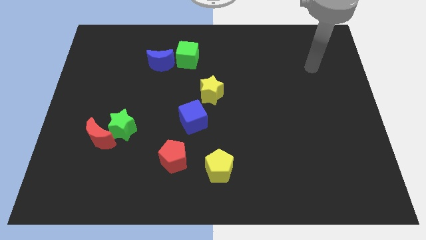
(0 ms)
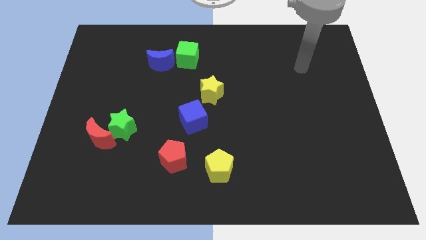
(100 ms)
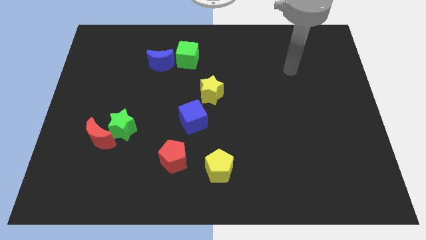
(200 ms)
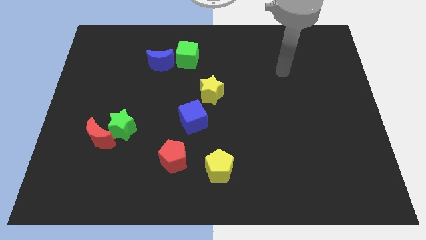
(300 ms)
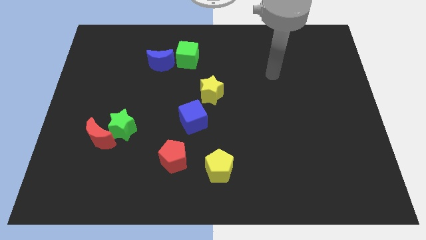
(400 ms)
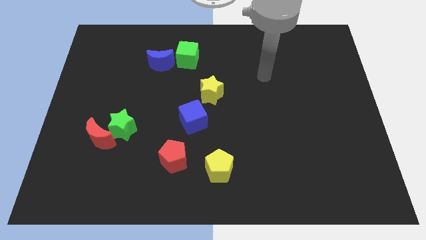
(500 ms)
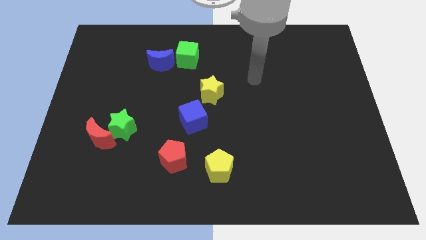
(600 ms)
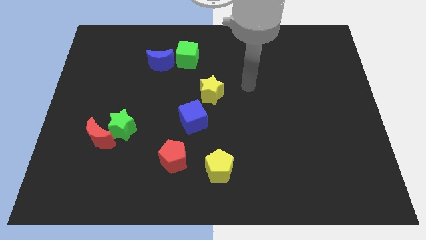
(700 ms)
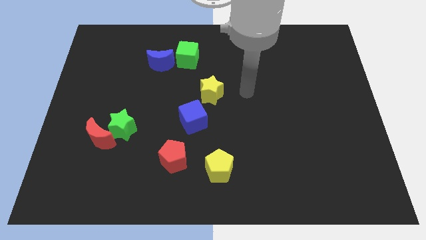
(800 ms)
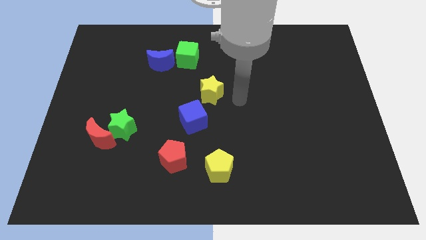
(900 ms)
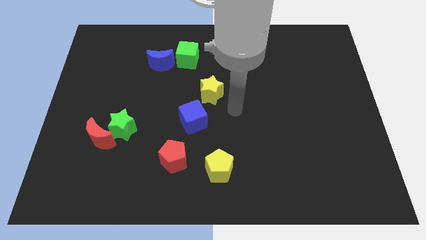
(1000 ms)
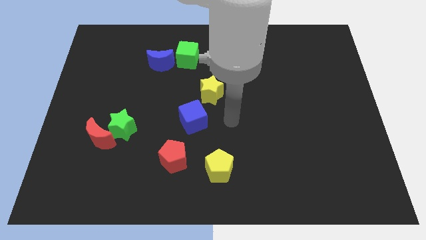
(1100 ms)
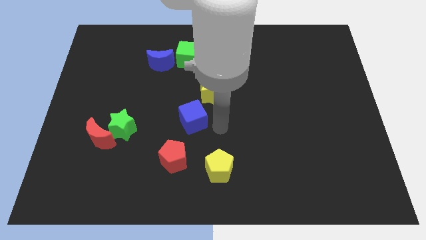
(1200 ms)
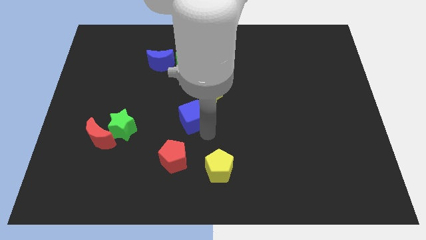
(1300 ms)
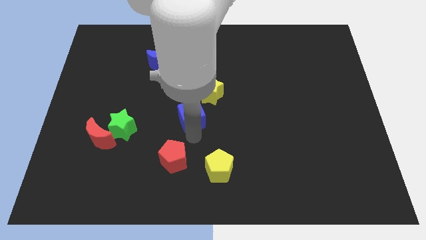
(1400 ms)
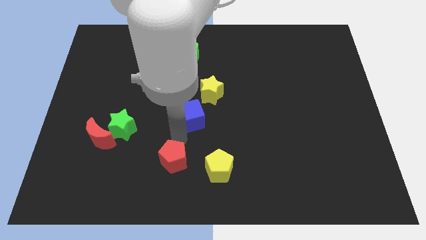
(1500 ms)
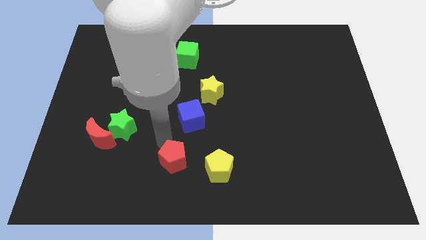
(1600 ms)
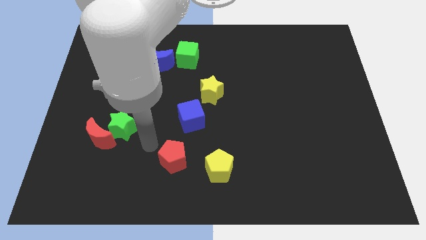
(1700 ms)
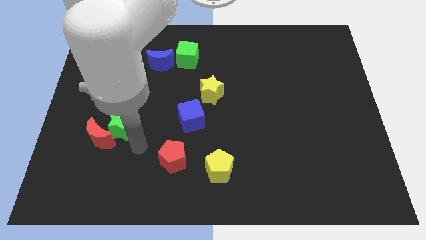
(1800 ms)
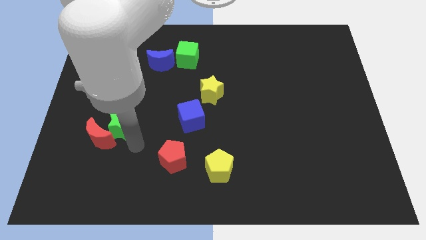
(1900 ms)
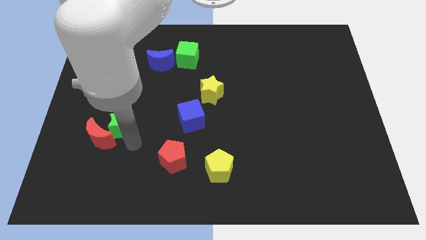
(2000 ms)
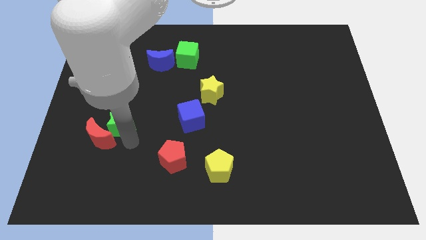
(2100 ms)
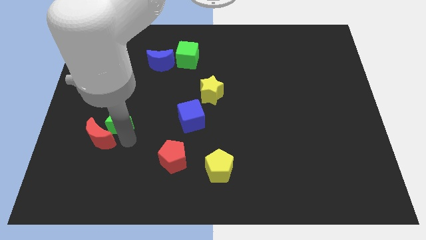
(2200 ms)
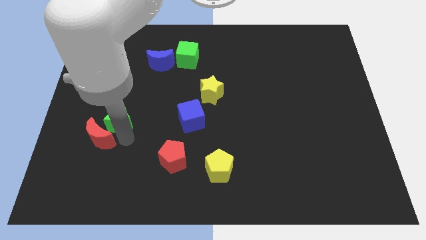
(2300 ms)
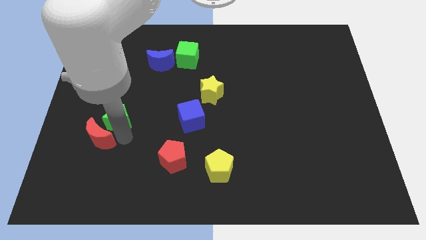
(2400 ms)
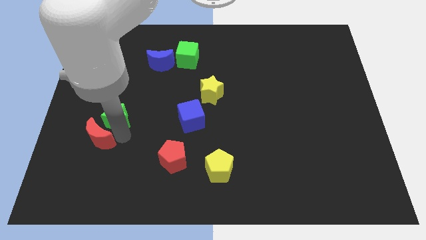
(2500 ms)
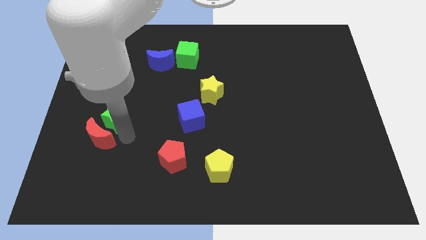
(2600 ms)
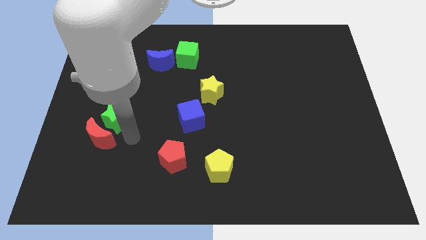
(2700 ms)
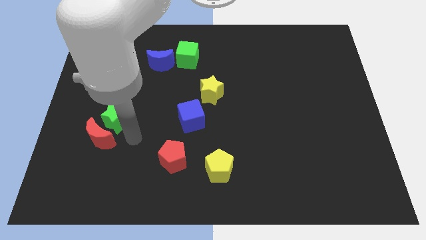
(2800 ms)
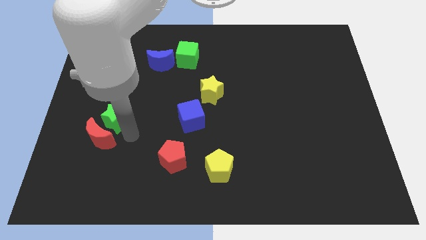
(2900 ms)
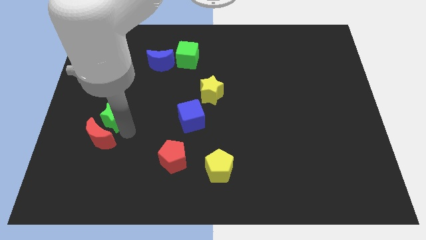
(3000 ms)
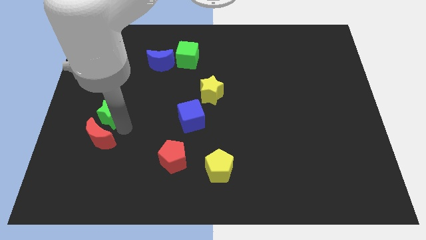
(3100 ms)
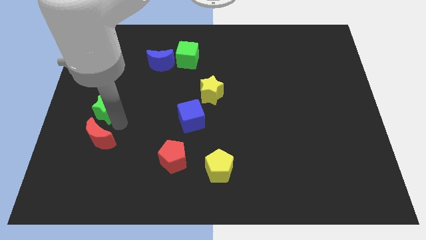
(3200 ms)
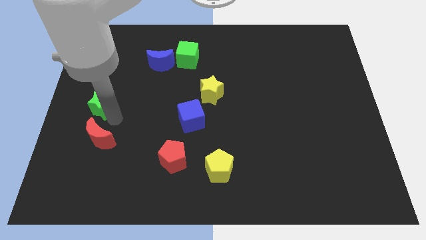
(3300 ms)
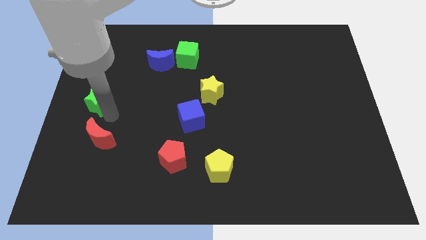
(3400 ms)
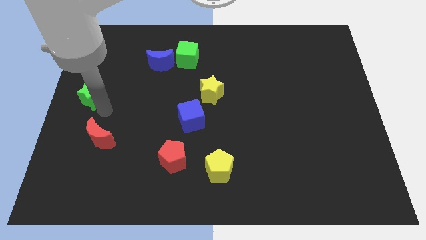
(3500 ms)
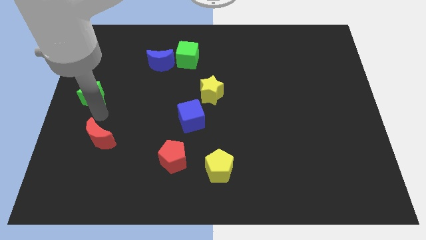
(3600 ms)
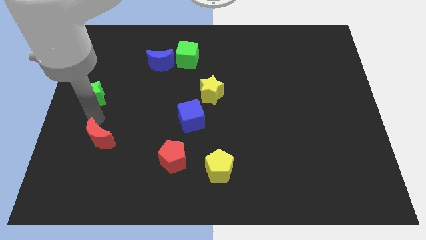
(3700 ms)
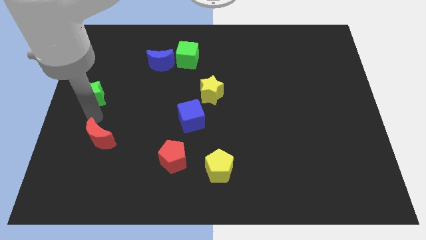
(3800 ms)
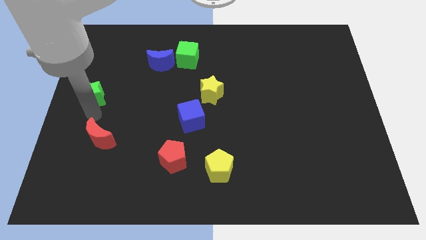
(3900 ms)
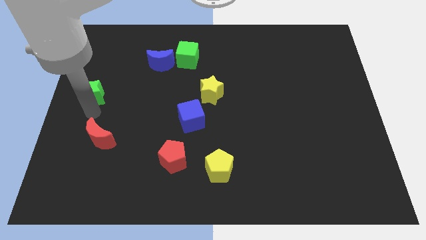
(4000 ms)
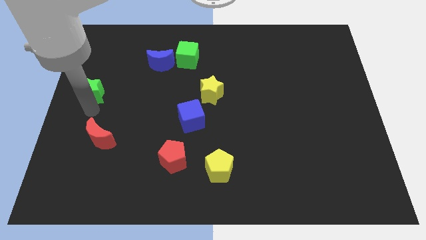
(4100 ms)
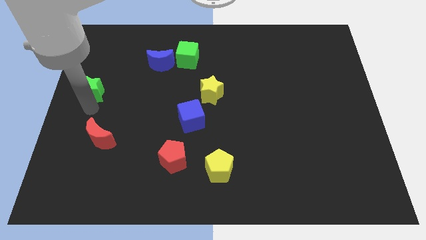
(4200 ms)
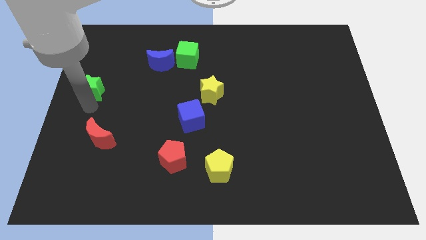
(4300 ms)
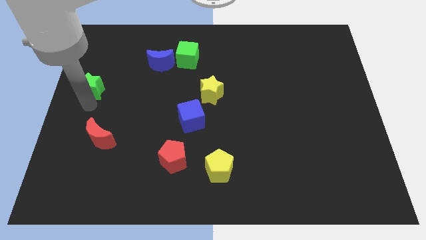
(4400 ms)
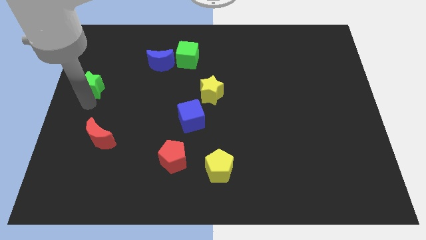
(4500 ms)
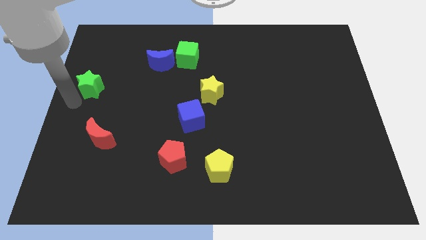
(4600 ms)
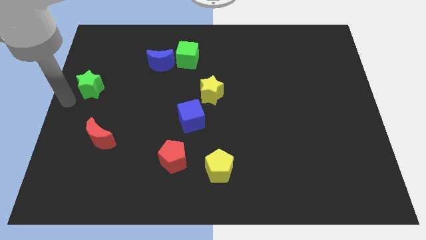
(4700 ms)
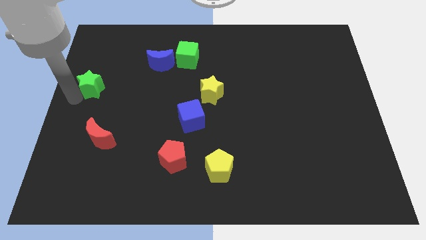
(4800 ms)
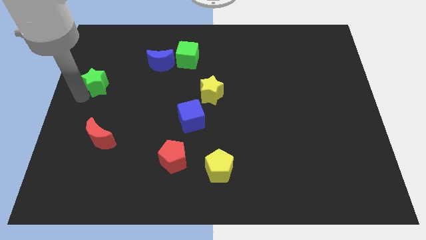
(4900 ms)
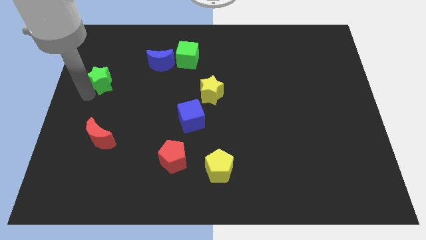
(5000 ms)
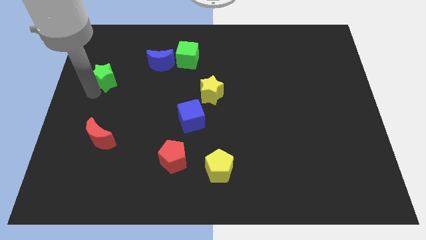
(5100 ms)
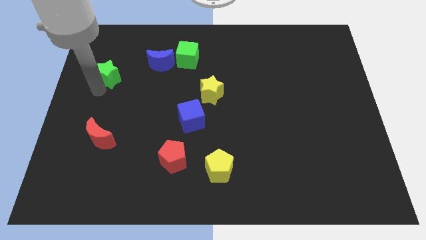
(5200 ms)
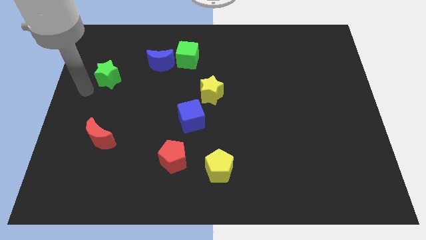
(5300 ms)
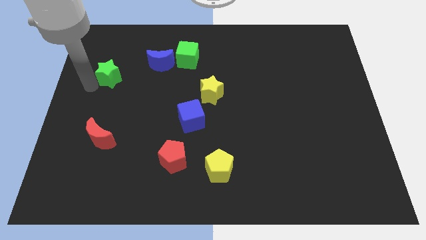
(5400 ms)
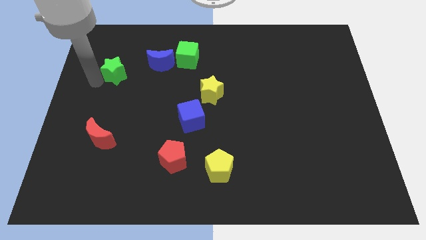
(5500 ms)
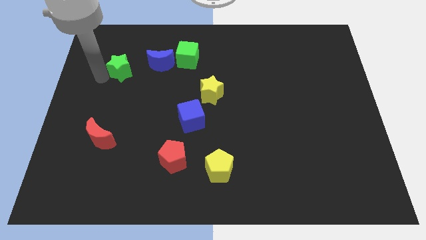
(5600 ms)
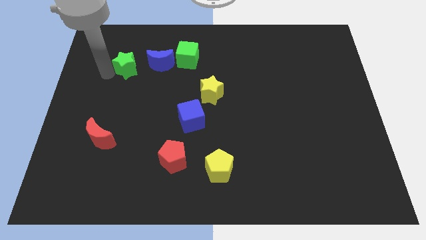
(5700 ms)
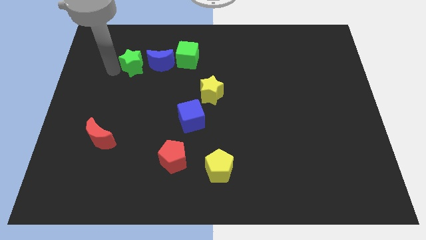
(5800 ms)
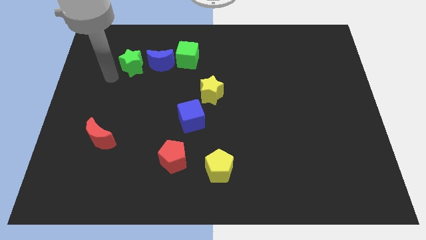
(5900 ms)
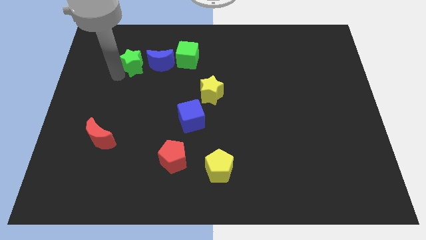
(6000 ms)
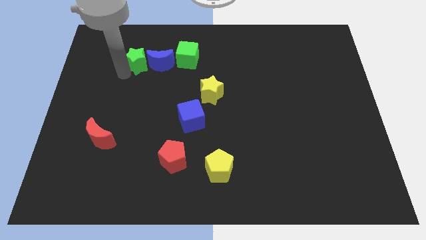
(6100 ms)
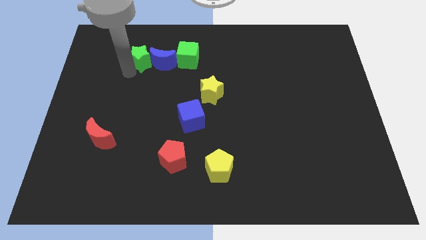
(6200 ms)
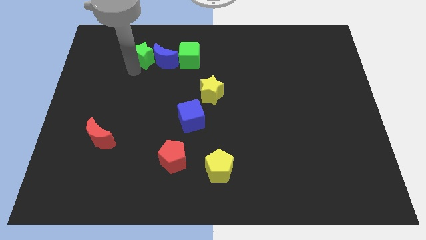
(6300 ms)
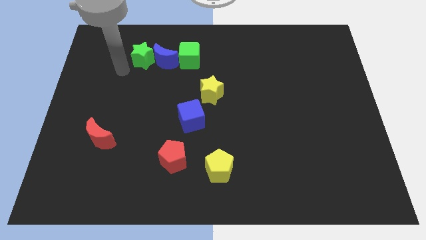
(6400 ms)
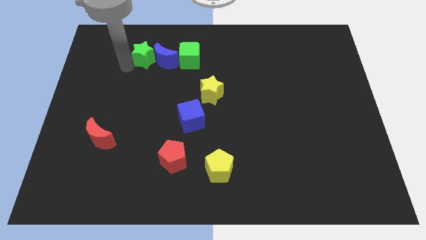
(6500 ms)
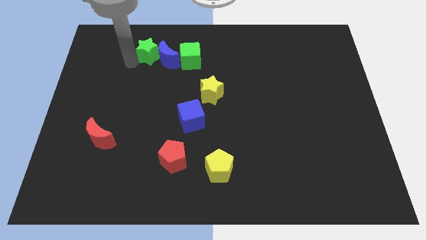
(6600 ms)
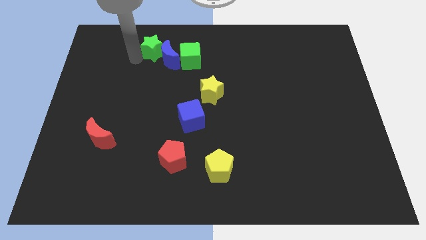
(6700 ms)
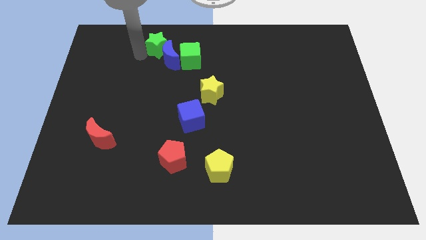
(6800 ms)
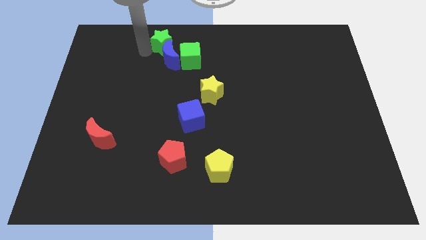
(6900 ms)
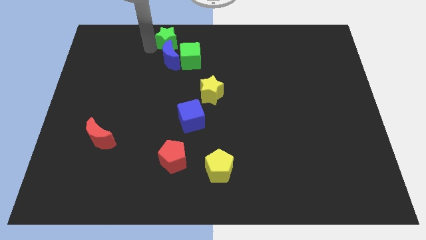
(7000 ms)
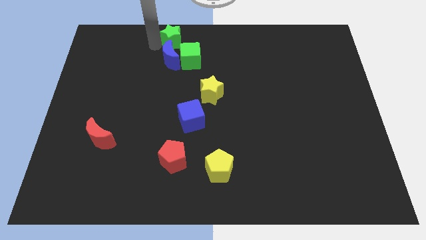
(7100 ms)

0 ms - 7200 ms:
put the green star to the top
